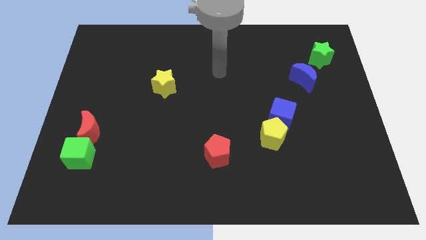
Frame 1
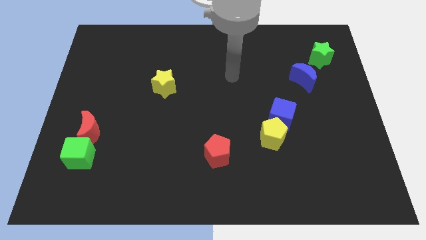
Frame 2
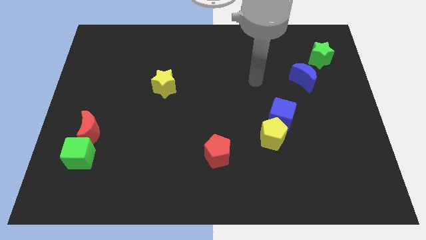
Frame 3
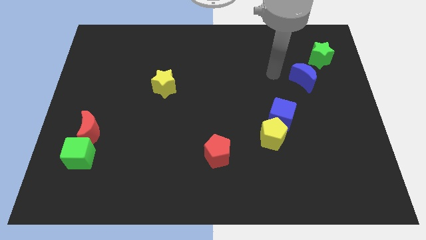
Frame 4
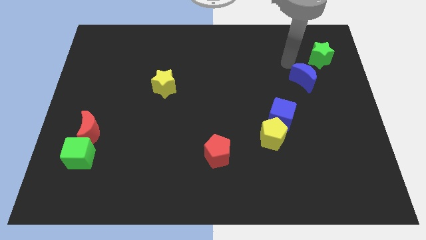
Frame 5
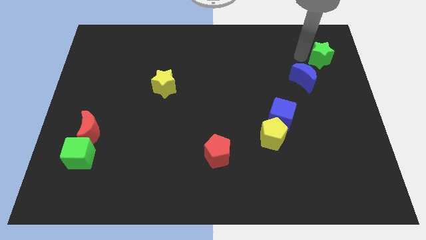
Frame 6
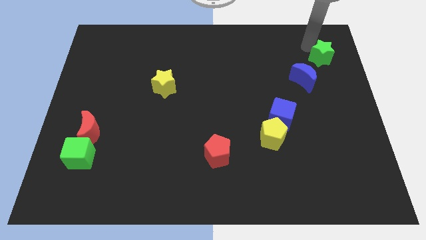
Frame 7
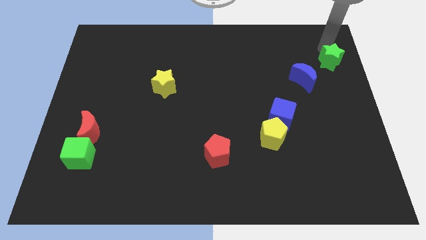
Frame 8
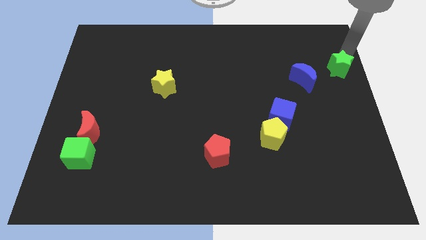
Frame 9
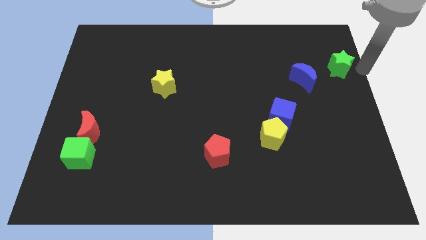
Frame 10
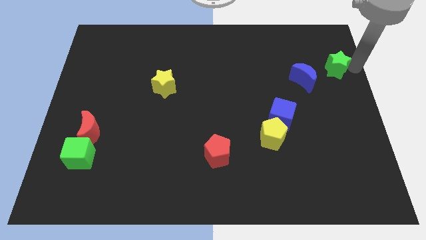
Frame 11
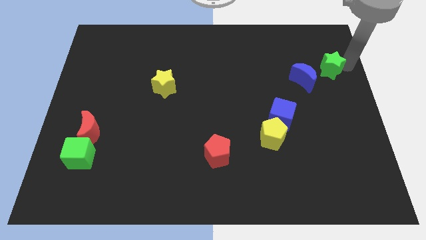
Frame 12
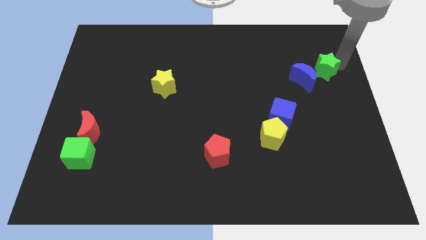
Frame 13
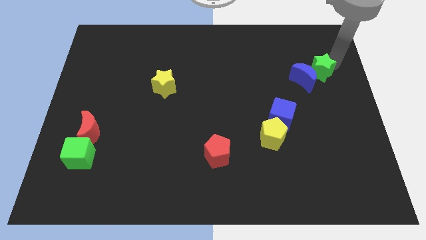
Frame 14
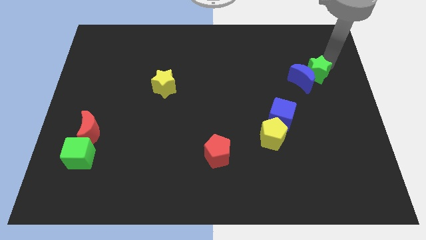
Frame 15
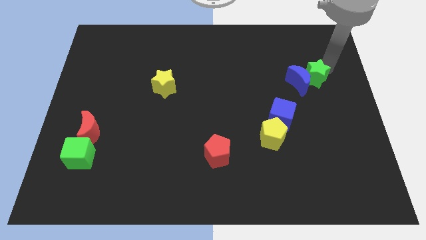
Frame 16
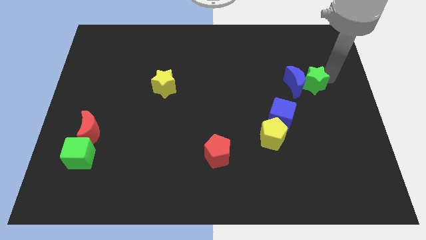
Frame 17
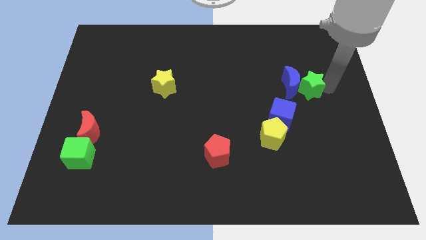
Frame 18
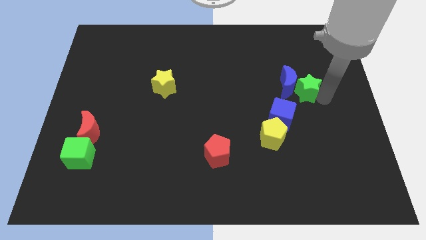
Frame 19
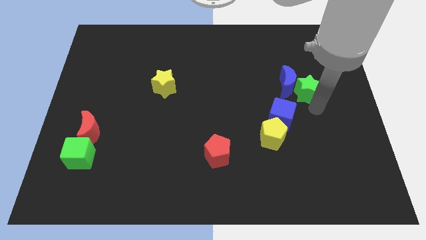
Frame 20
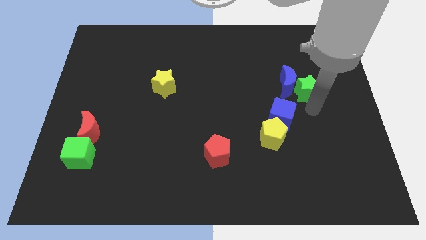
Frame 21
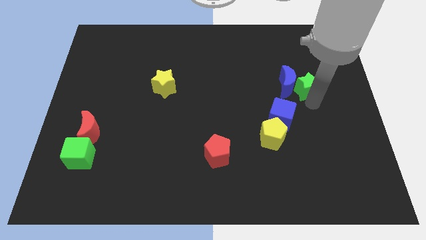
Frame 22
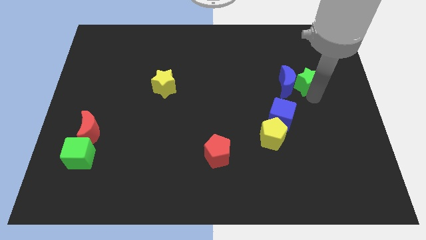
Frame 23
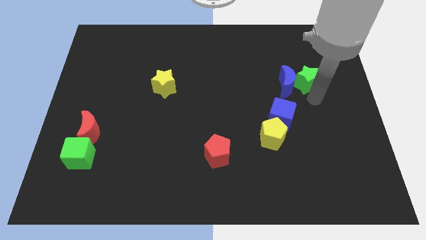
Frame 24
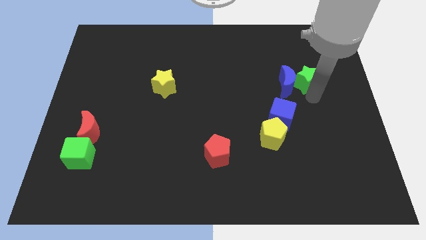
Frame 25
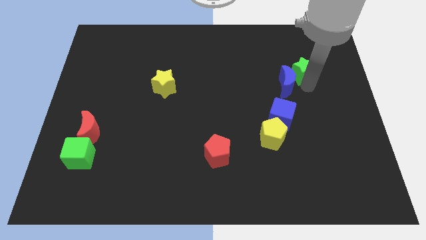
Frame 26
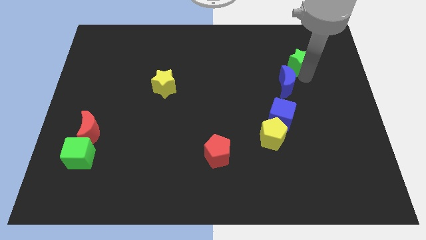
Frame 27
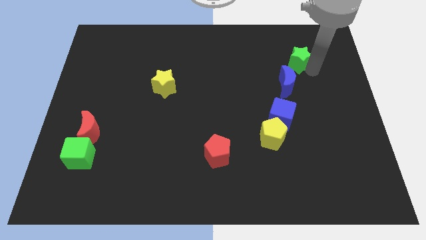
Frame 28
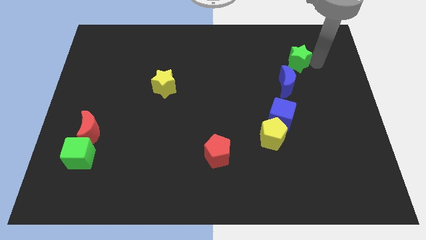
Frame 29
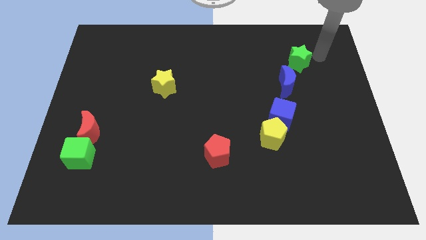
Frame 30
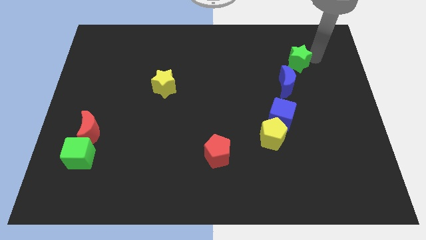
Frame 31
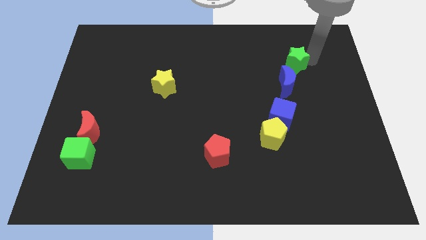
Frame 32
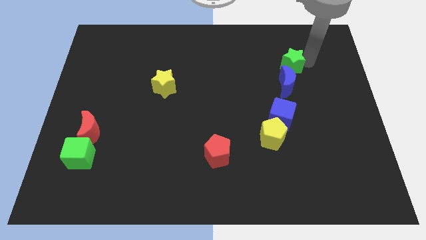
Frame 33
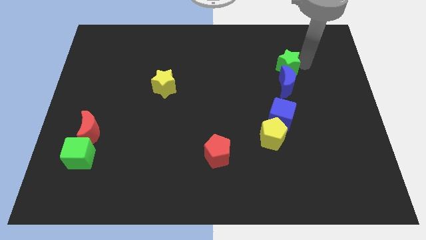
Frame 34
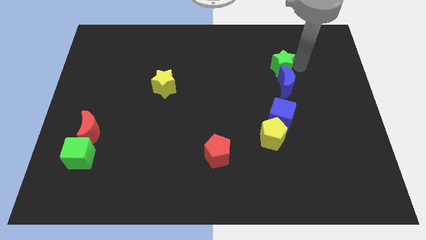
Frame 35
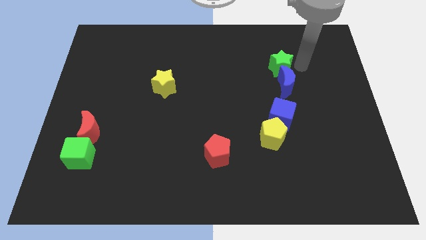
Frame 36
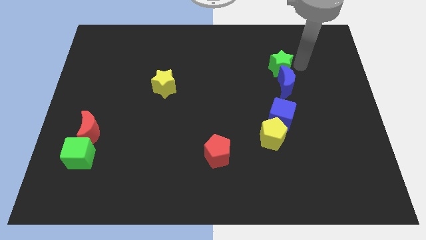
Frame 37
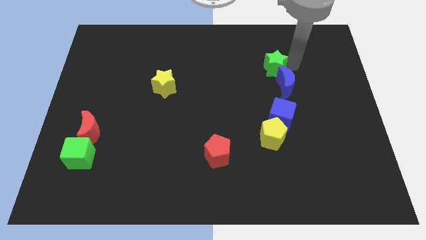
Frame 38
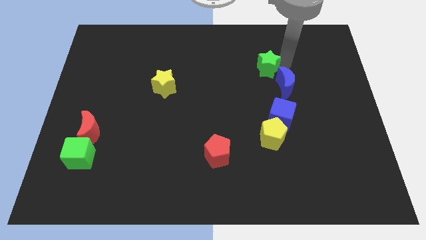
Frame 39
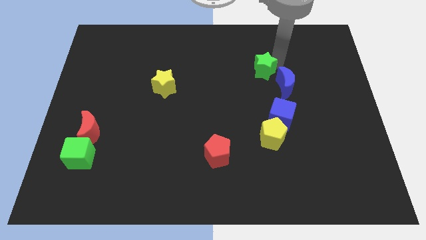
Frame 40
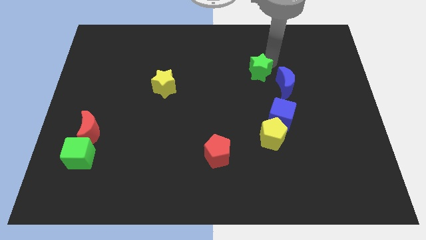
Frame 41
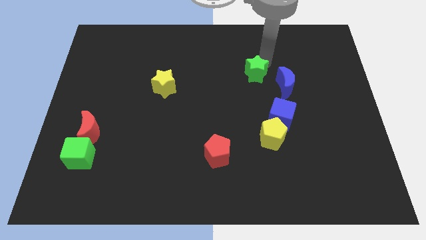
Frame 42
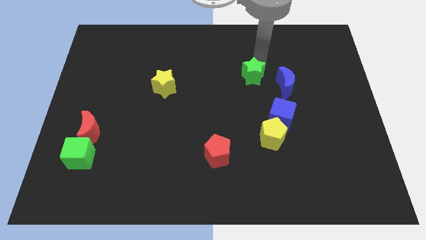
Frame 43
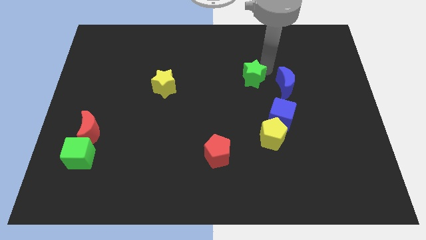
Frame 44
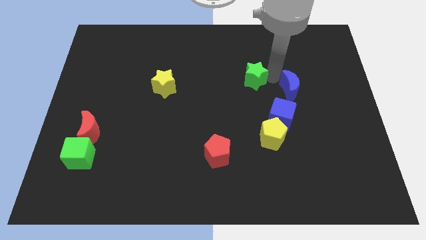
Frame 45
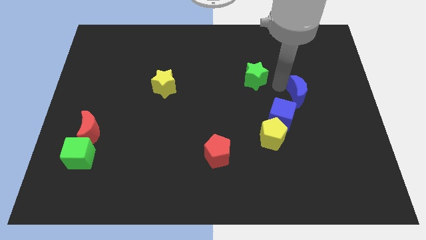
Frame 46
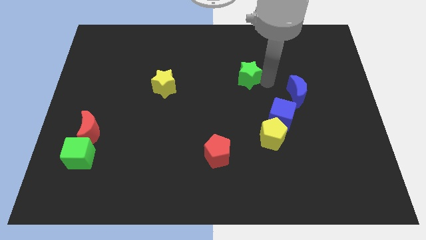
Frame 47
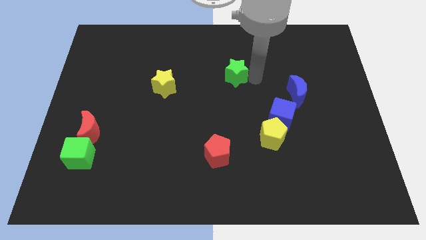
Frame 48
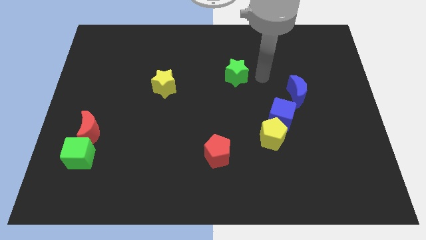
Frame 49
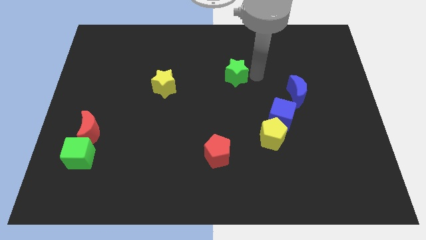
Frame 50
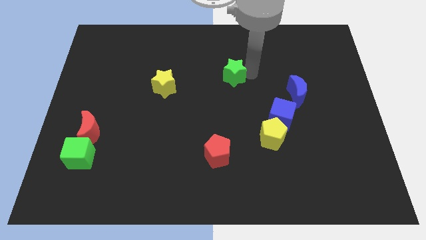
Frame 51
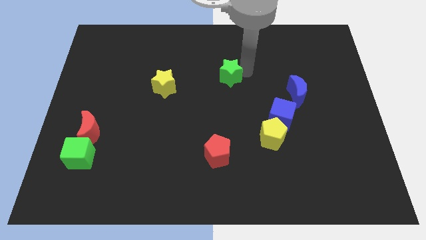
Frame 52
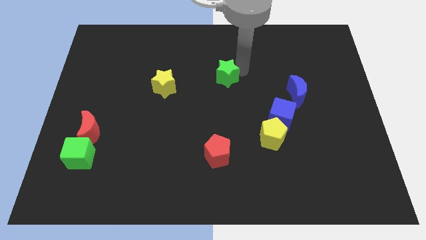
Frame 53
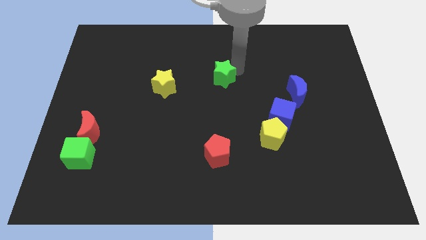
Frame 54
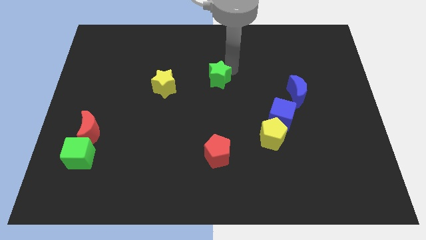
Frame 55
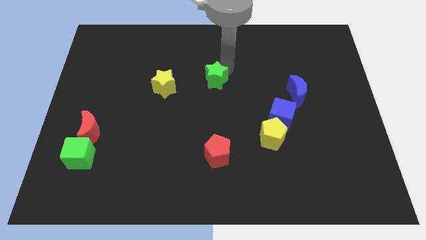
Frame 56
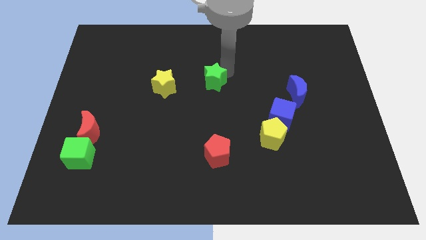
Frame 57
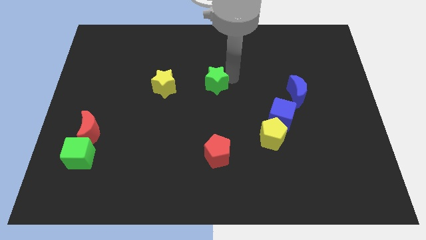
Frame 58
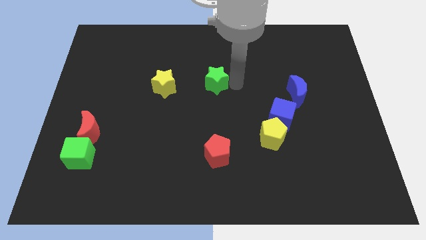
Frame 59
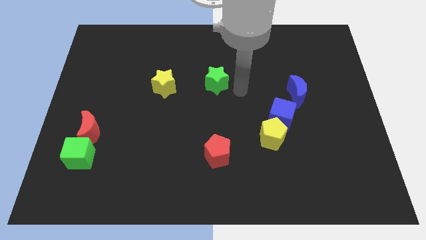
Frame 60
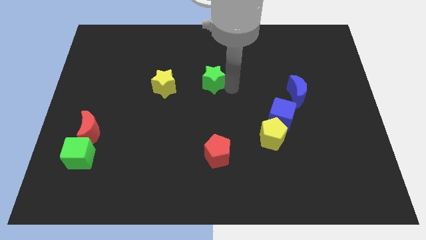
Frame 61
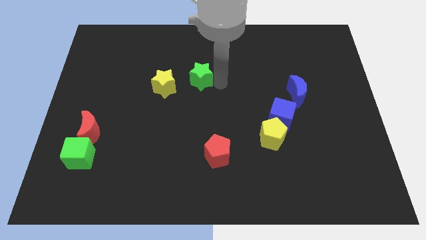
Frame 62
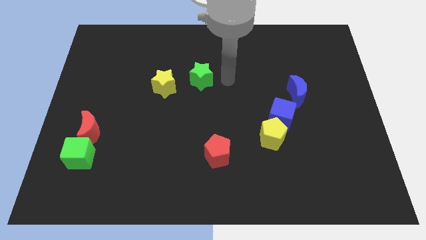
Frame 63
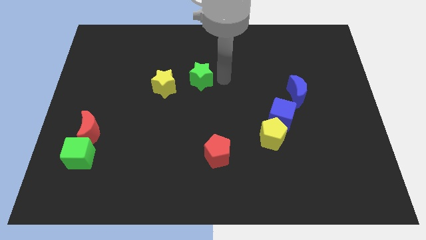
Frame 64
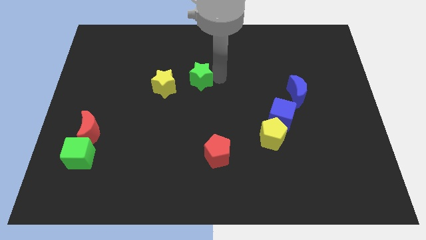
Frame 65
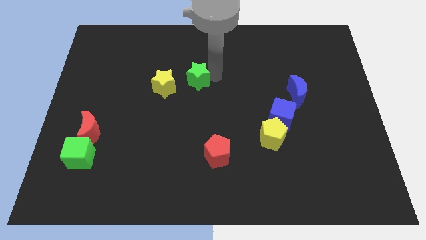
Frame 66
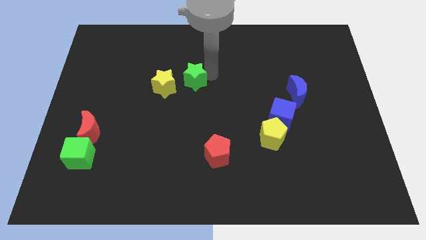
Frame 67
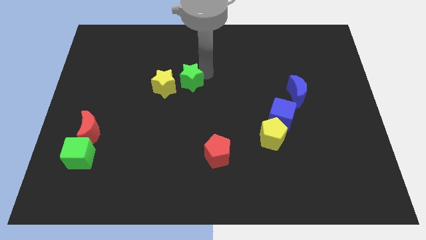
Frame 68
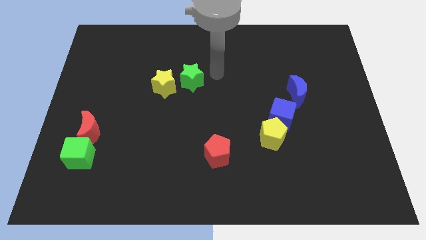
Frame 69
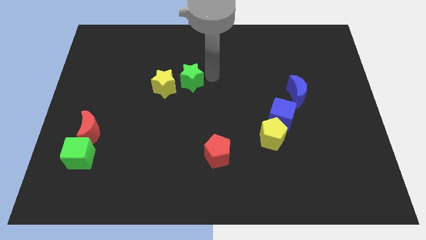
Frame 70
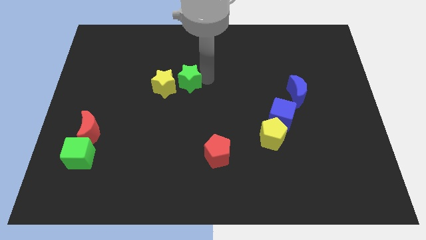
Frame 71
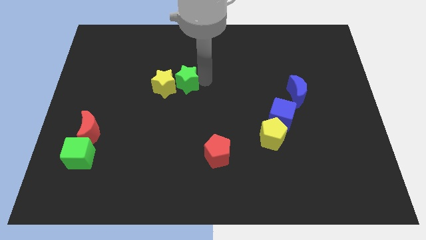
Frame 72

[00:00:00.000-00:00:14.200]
slide the green star towards the yellow star
